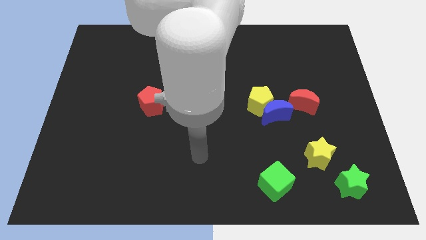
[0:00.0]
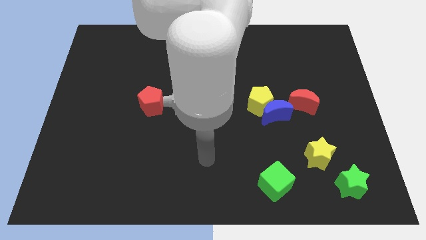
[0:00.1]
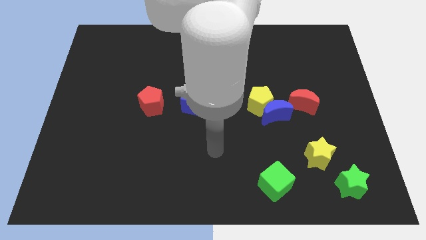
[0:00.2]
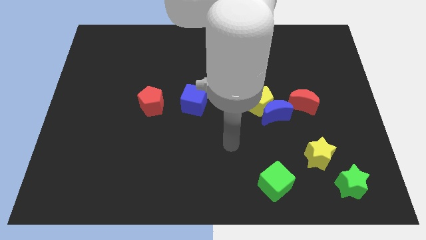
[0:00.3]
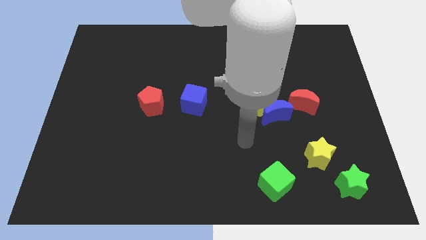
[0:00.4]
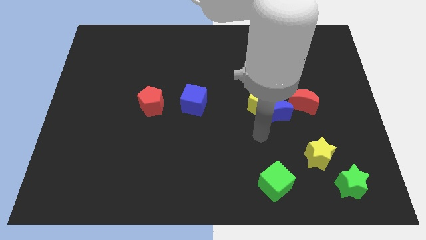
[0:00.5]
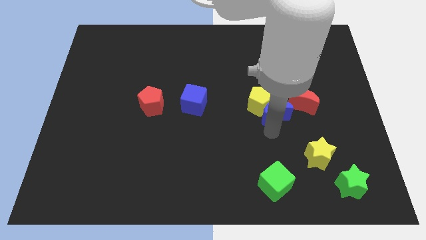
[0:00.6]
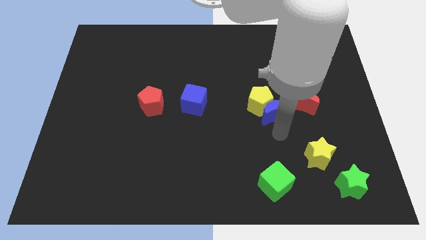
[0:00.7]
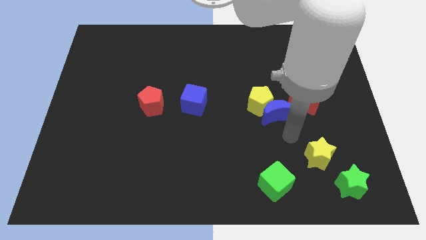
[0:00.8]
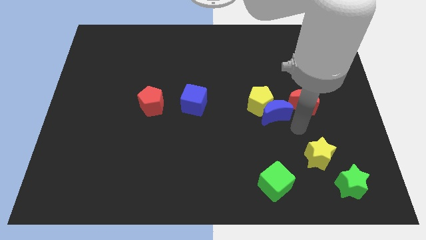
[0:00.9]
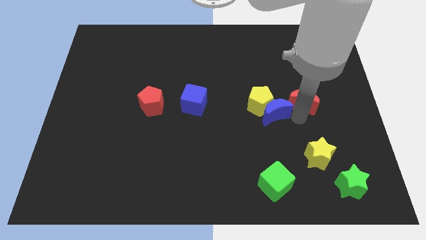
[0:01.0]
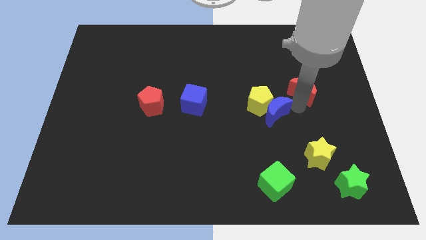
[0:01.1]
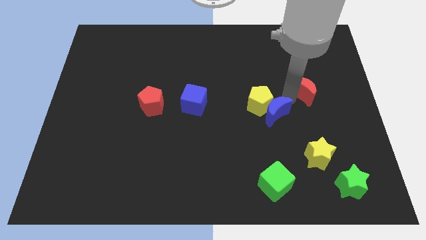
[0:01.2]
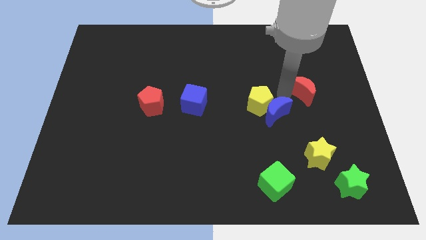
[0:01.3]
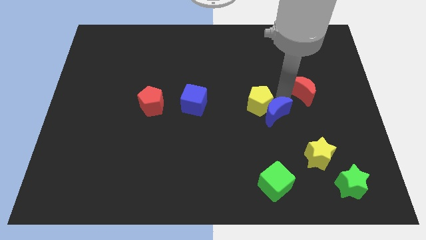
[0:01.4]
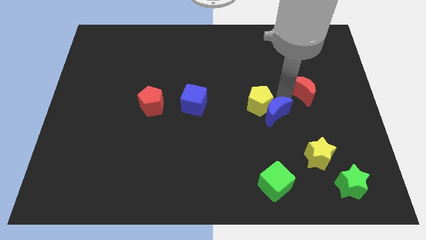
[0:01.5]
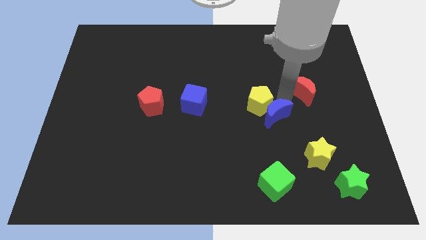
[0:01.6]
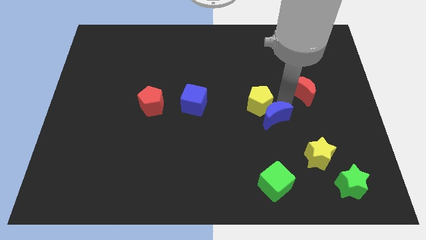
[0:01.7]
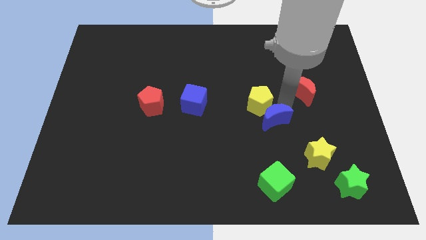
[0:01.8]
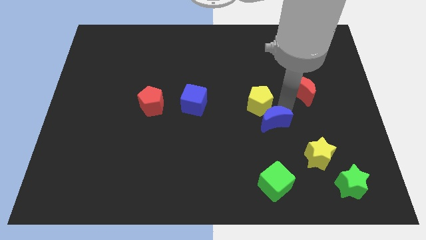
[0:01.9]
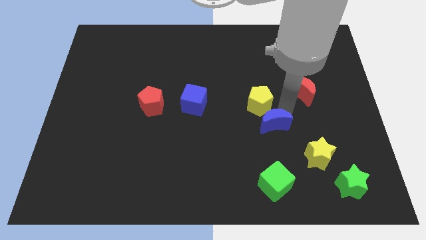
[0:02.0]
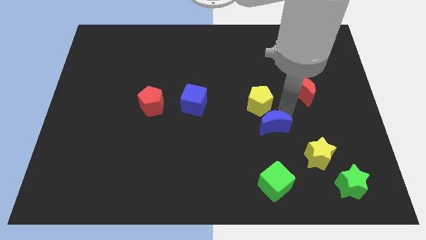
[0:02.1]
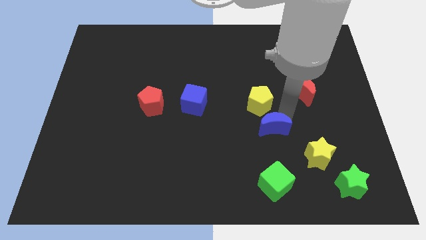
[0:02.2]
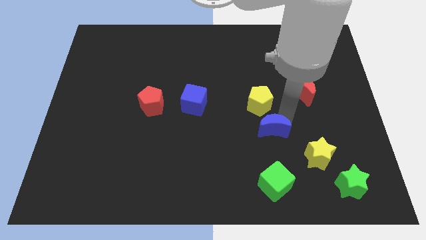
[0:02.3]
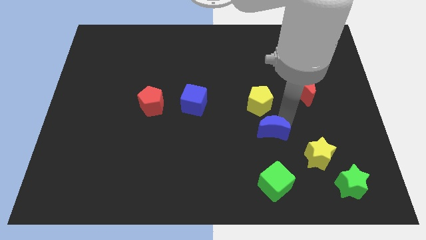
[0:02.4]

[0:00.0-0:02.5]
separate the blue moon from the yellow pentagon and red moon

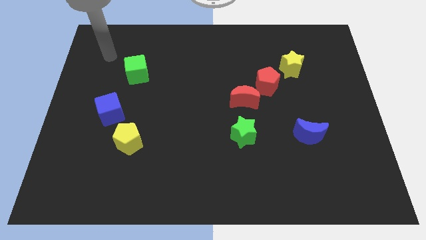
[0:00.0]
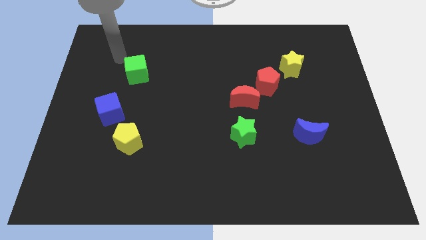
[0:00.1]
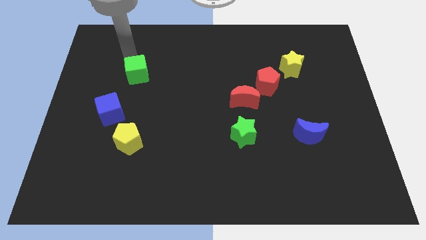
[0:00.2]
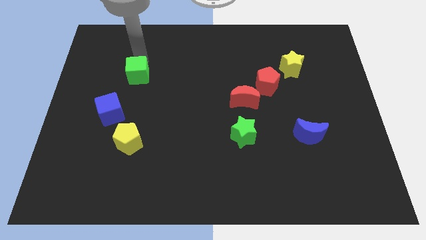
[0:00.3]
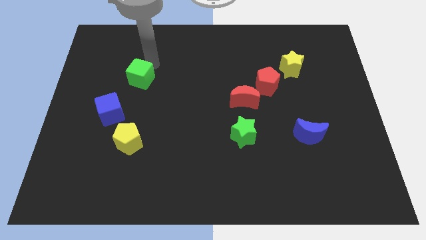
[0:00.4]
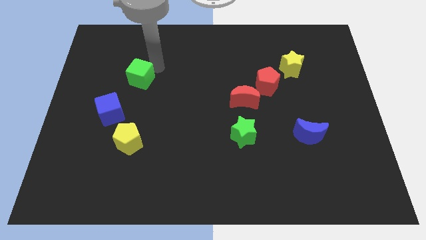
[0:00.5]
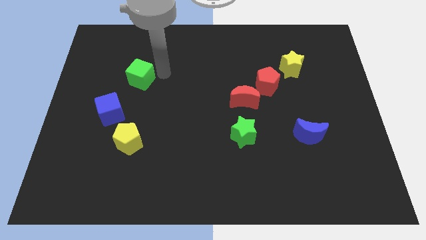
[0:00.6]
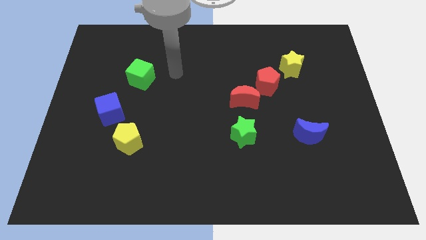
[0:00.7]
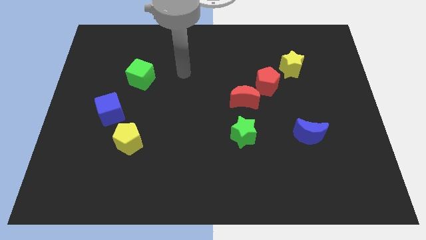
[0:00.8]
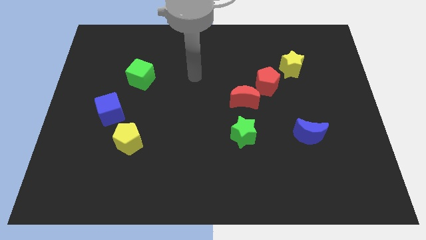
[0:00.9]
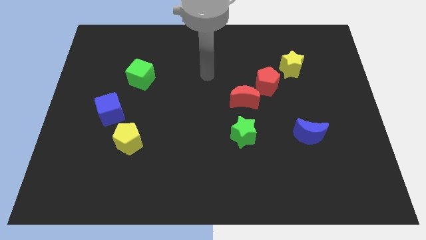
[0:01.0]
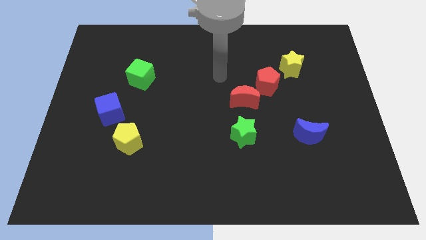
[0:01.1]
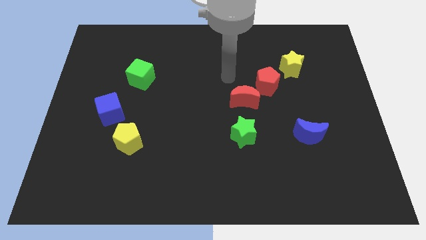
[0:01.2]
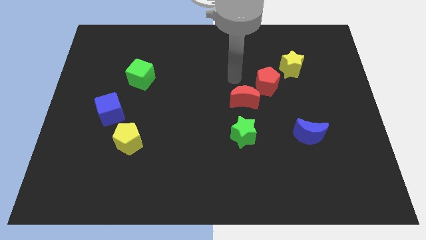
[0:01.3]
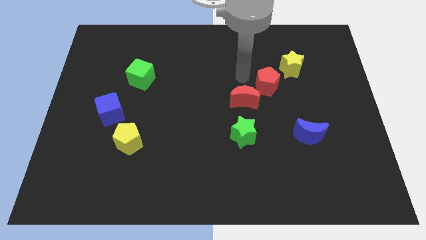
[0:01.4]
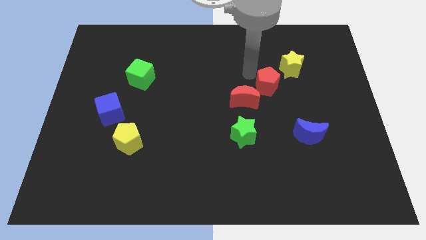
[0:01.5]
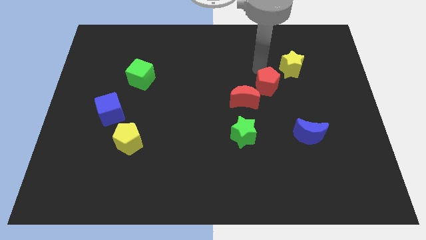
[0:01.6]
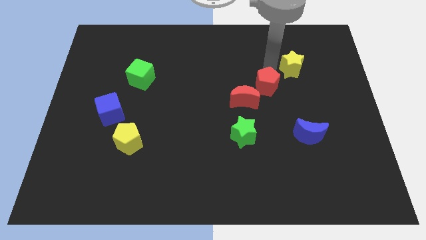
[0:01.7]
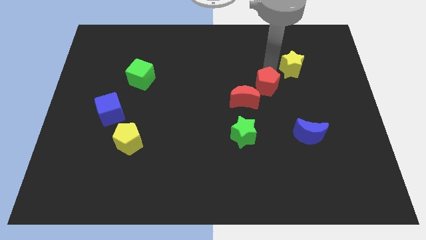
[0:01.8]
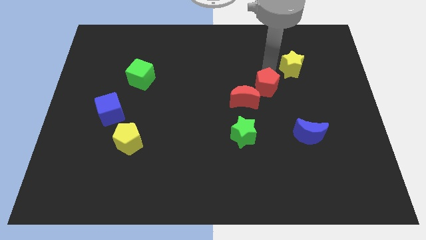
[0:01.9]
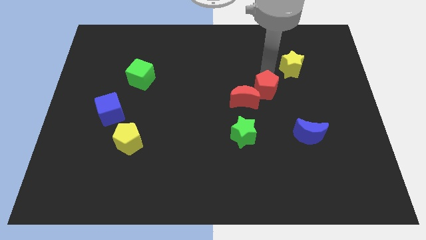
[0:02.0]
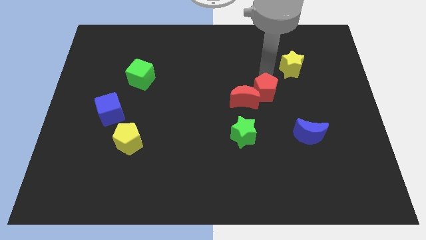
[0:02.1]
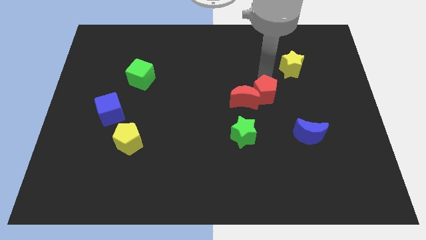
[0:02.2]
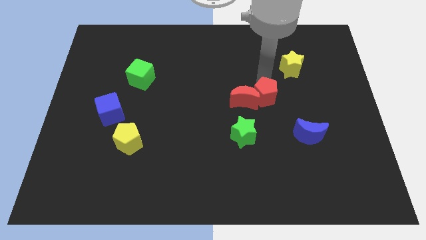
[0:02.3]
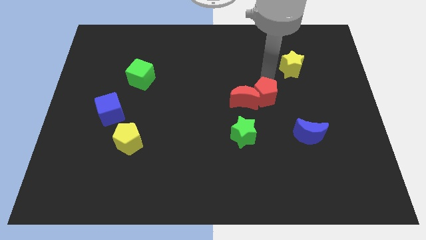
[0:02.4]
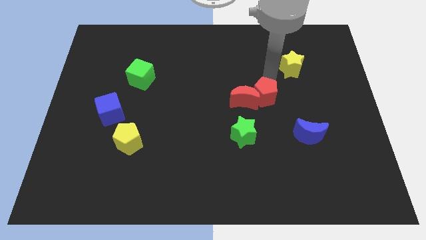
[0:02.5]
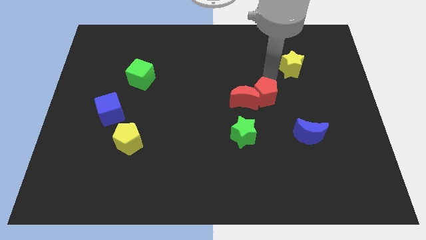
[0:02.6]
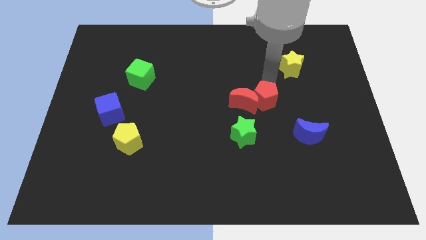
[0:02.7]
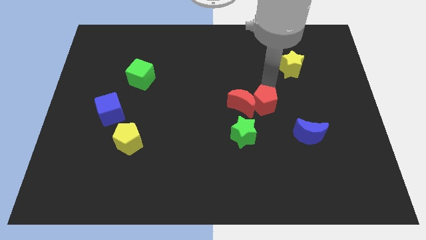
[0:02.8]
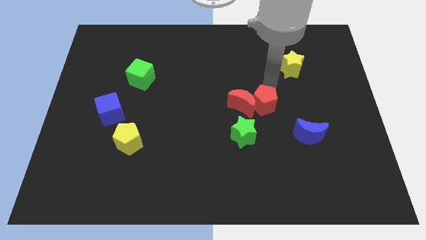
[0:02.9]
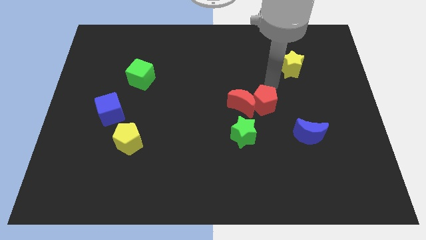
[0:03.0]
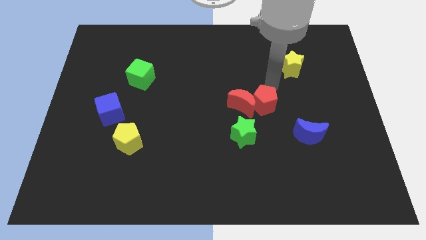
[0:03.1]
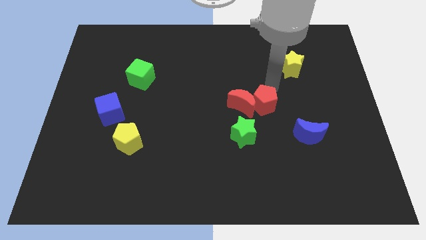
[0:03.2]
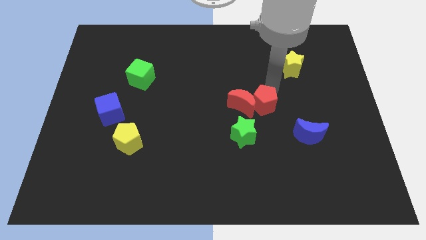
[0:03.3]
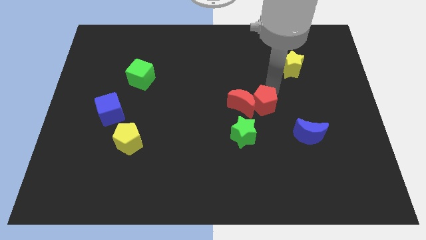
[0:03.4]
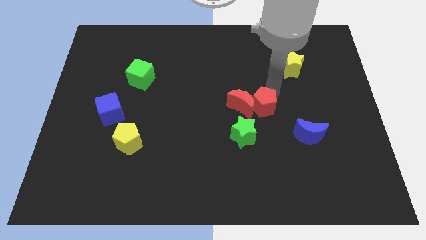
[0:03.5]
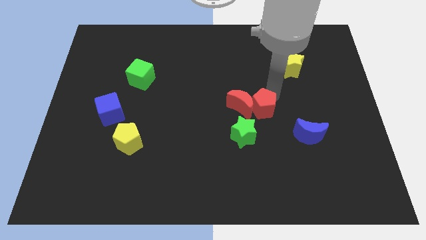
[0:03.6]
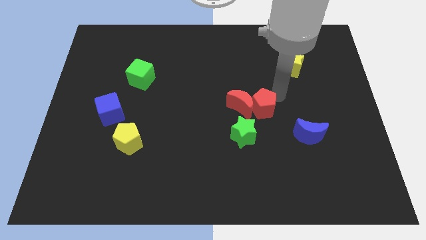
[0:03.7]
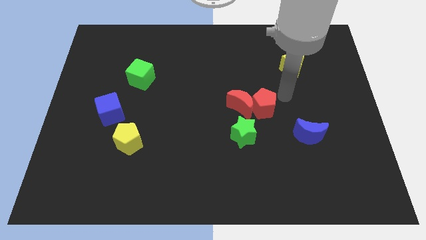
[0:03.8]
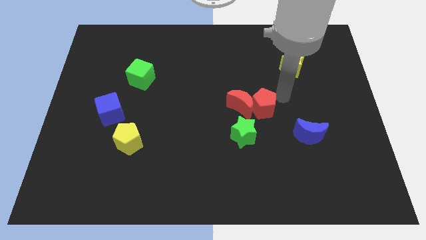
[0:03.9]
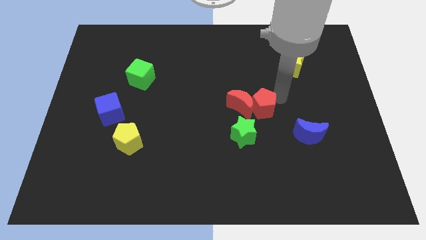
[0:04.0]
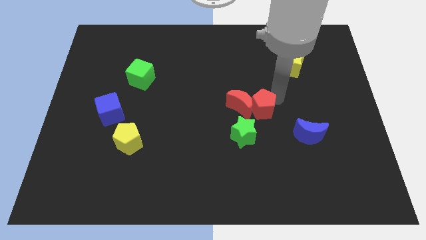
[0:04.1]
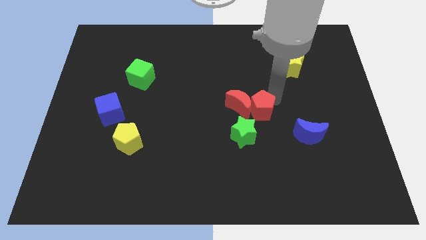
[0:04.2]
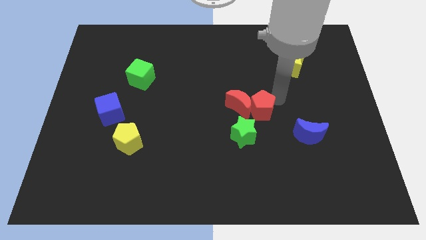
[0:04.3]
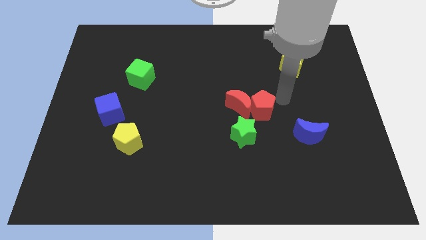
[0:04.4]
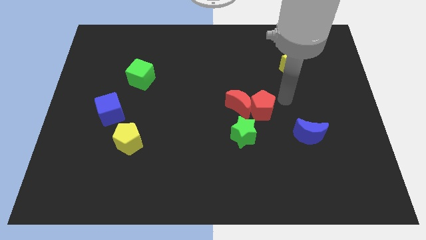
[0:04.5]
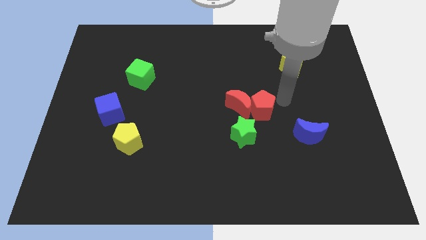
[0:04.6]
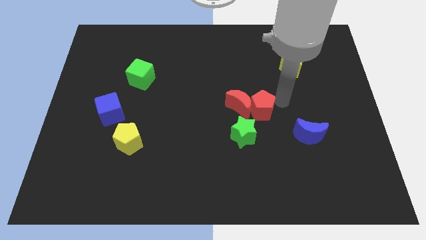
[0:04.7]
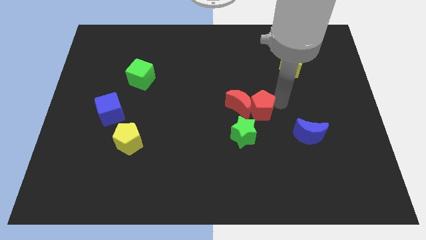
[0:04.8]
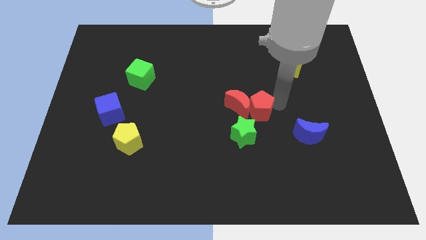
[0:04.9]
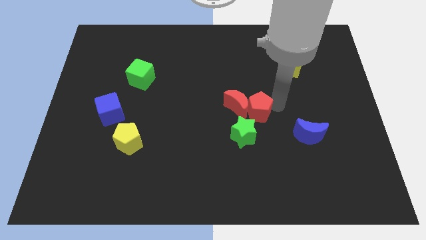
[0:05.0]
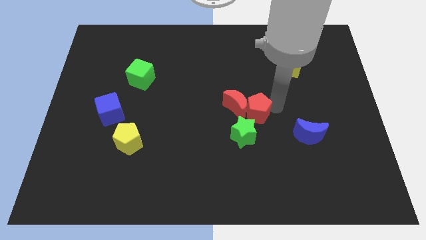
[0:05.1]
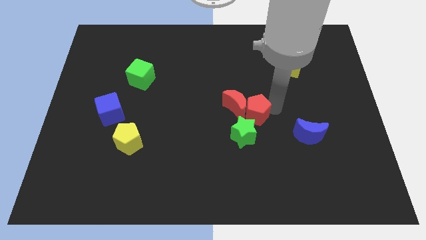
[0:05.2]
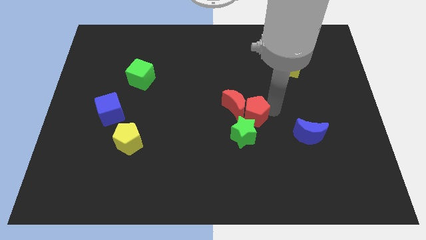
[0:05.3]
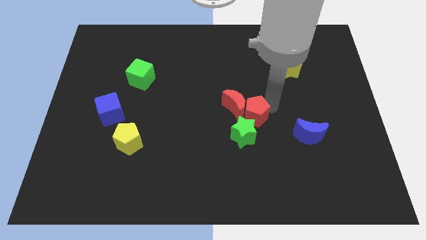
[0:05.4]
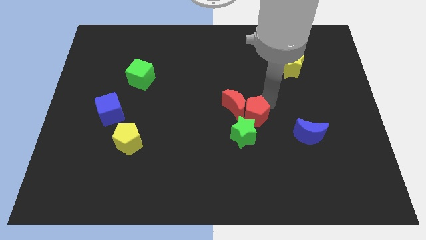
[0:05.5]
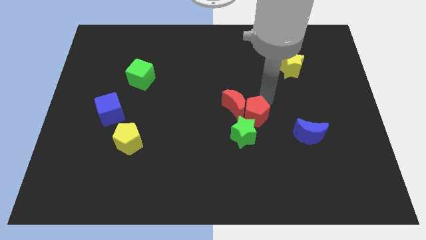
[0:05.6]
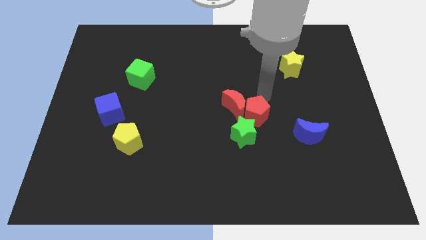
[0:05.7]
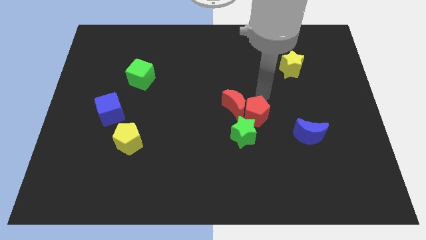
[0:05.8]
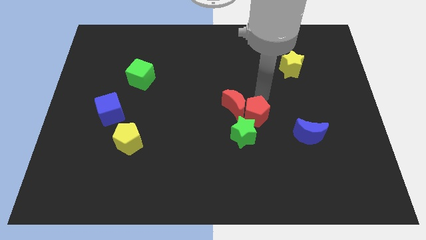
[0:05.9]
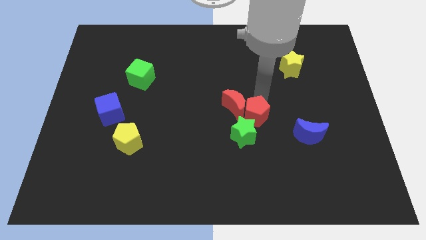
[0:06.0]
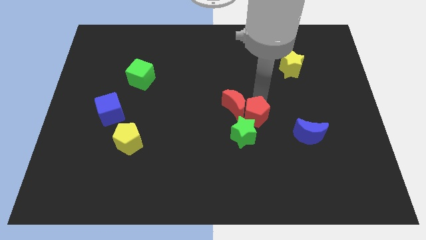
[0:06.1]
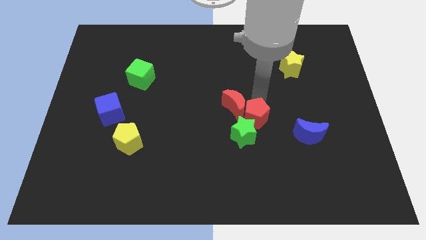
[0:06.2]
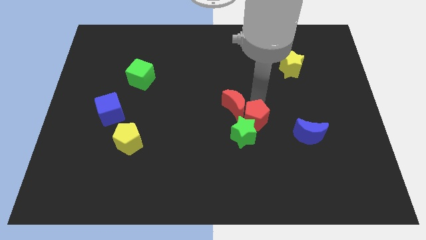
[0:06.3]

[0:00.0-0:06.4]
separate the red pentagon from the red moon and yellow star

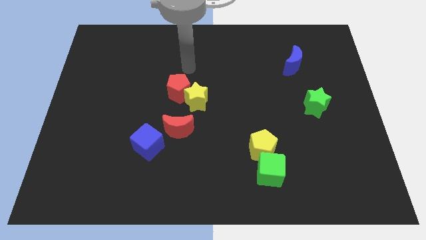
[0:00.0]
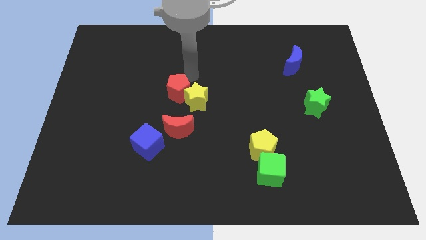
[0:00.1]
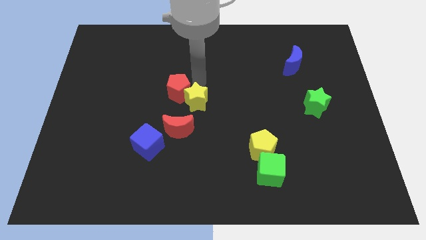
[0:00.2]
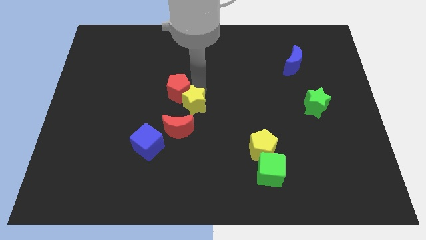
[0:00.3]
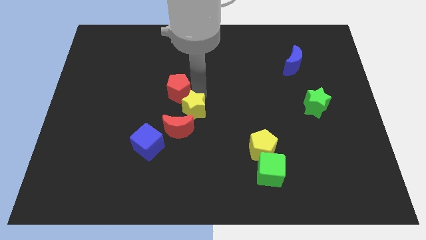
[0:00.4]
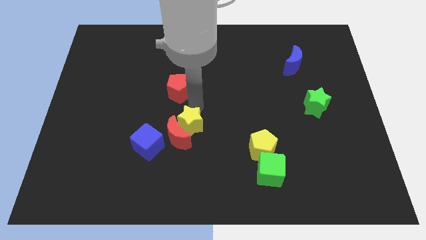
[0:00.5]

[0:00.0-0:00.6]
separate the red pentagon from the yellow star
